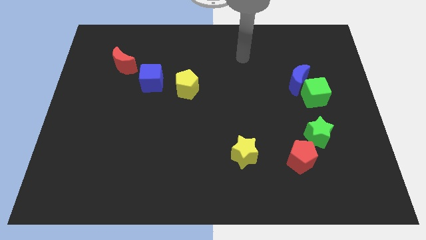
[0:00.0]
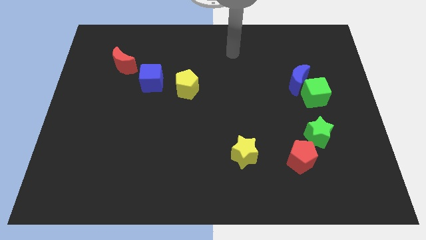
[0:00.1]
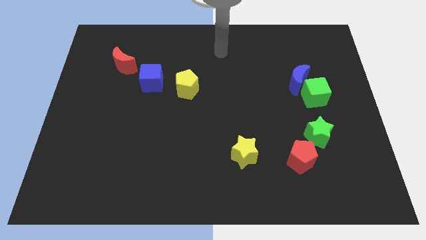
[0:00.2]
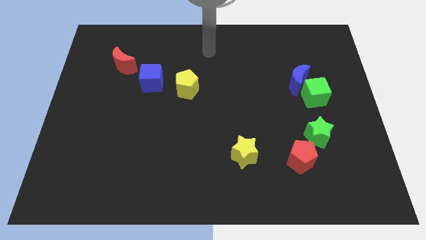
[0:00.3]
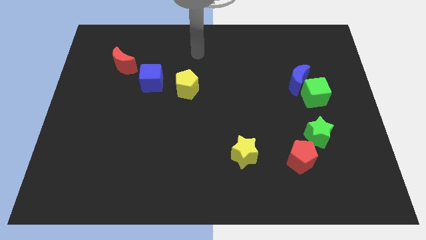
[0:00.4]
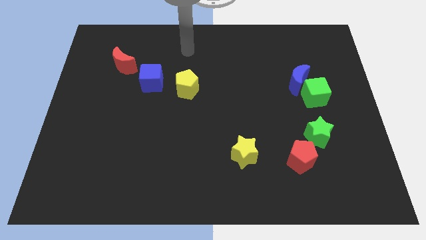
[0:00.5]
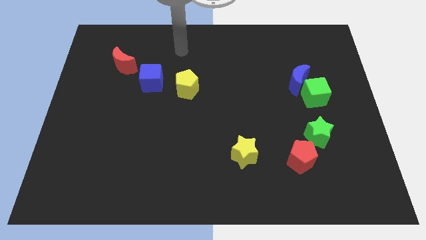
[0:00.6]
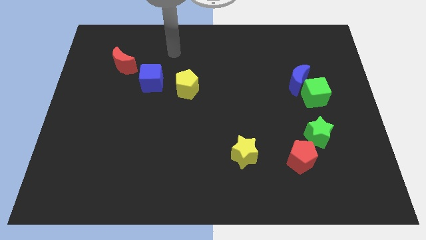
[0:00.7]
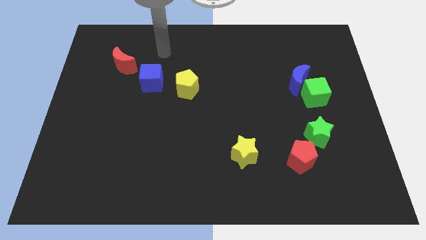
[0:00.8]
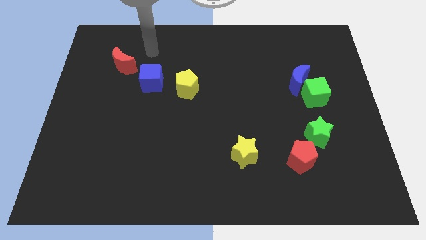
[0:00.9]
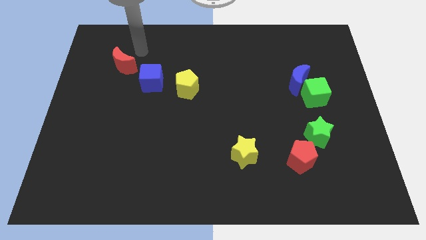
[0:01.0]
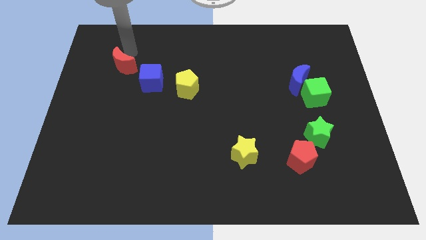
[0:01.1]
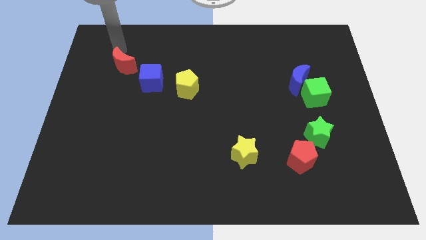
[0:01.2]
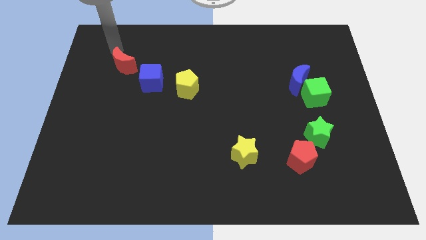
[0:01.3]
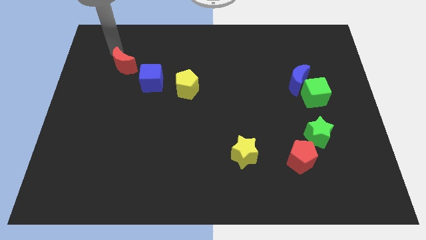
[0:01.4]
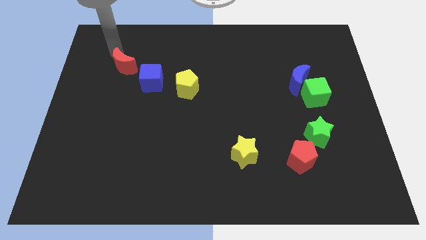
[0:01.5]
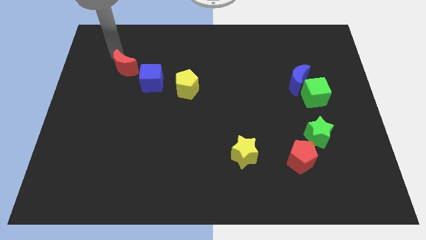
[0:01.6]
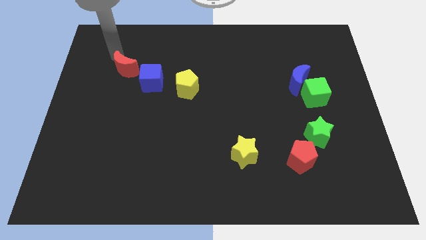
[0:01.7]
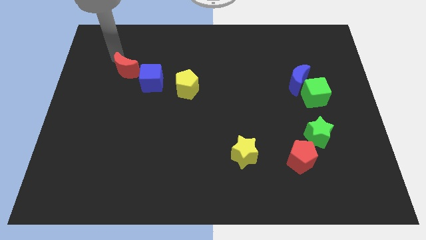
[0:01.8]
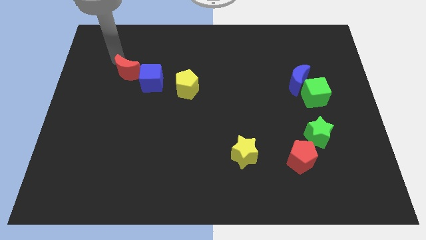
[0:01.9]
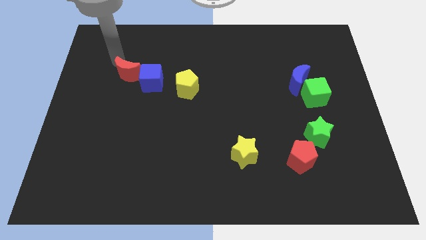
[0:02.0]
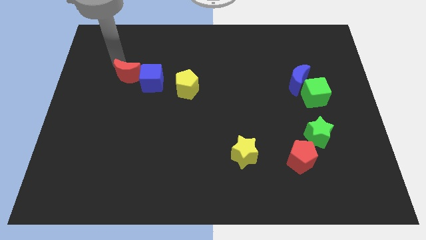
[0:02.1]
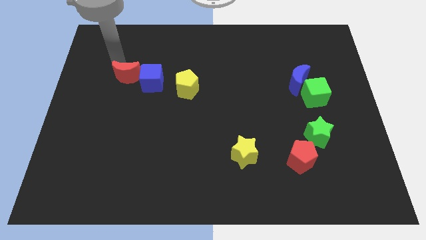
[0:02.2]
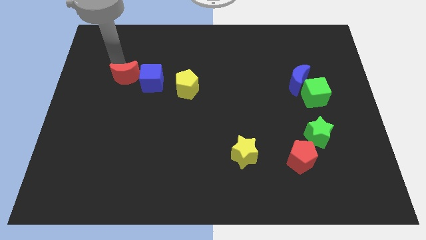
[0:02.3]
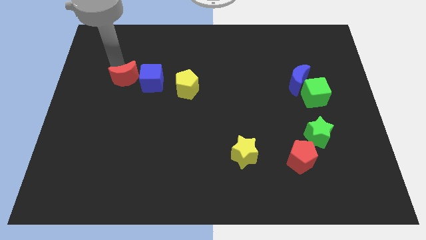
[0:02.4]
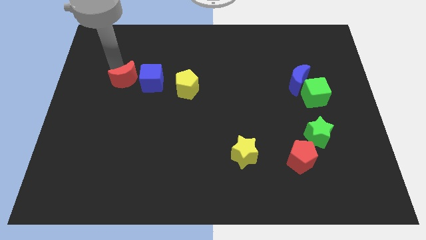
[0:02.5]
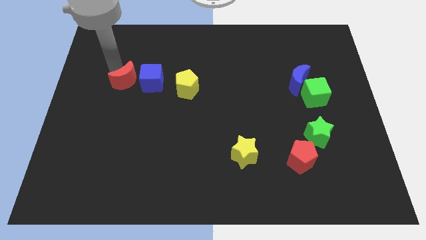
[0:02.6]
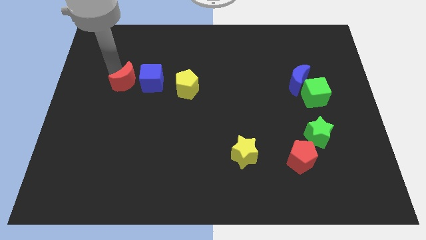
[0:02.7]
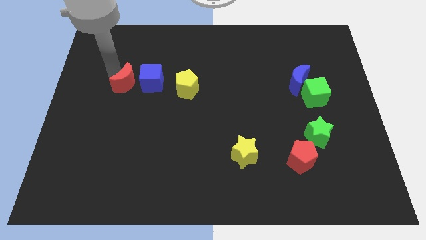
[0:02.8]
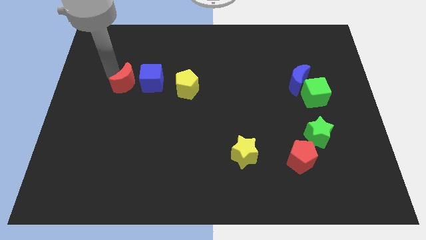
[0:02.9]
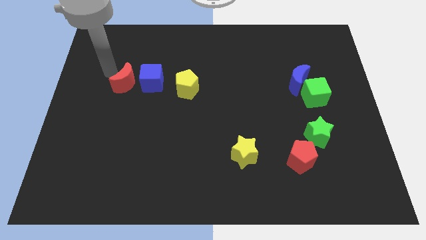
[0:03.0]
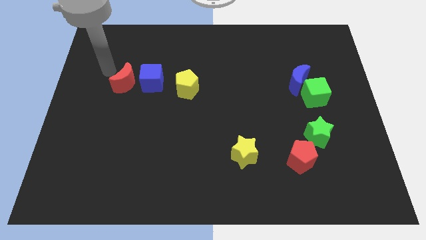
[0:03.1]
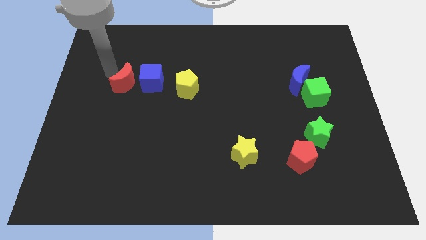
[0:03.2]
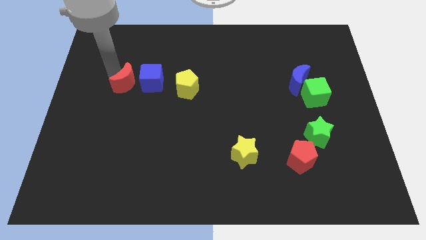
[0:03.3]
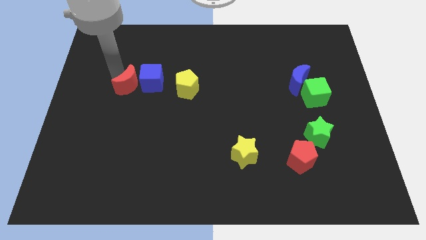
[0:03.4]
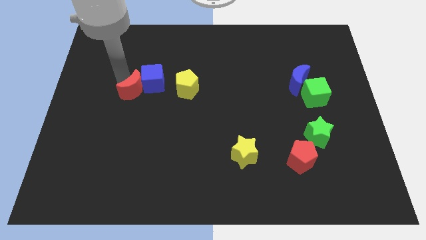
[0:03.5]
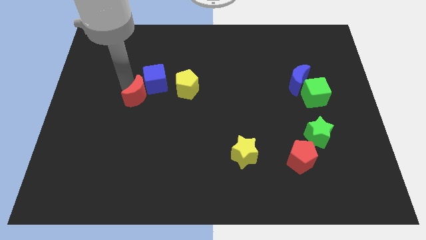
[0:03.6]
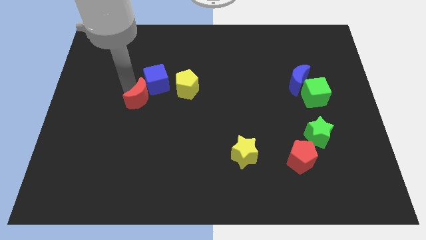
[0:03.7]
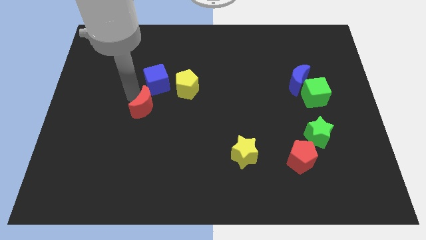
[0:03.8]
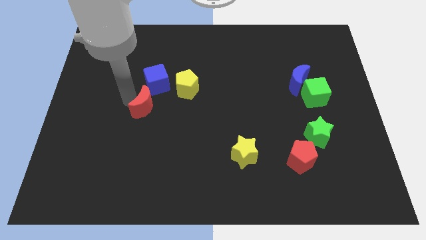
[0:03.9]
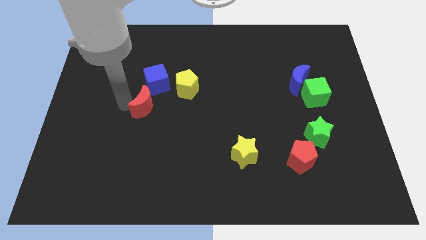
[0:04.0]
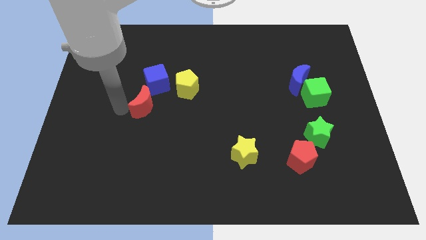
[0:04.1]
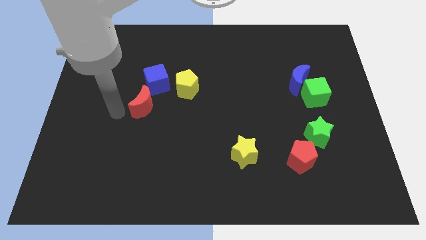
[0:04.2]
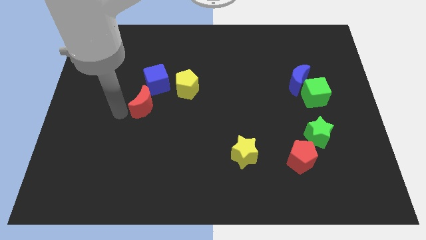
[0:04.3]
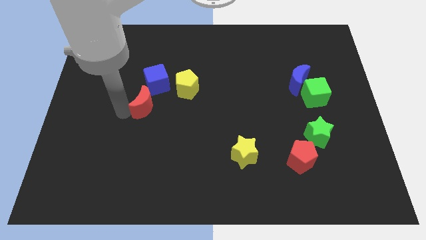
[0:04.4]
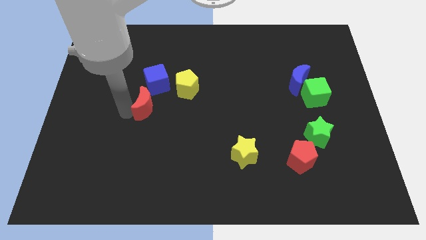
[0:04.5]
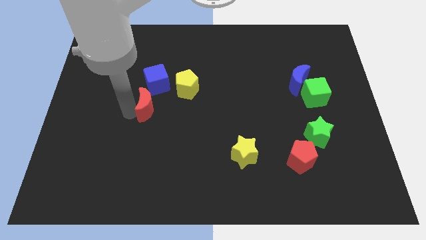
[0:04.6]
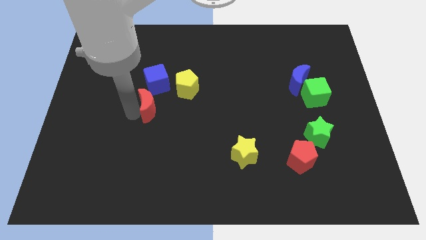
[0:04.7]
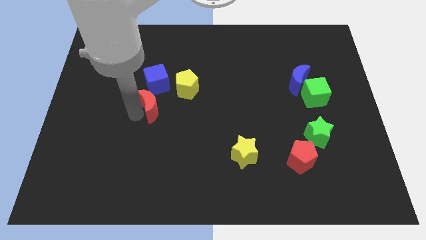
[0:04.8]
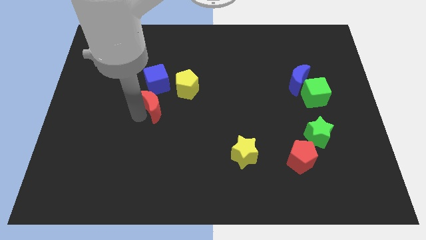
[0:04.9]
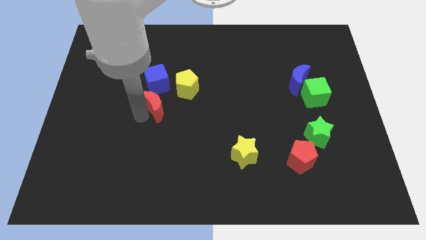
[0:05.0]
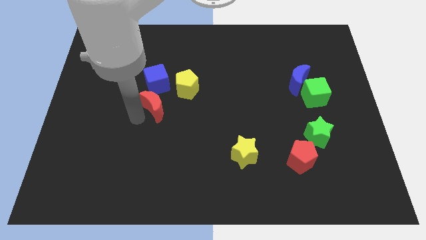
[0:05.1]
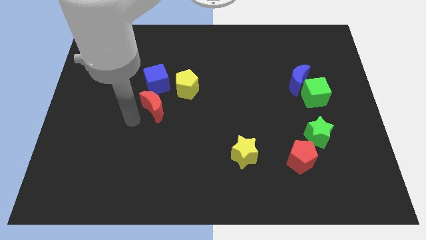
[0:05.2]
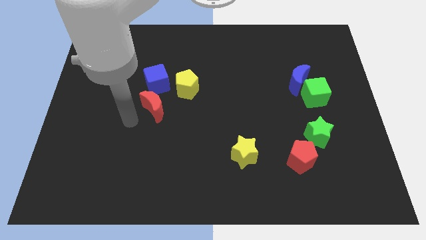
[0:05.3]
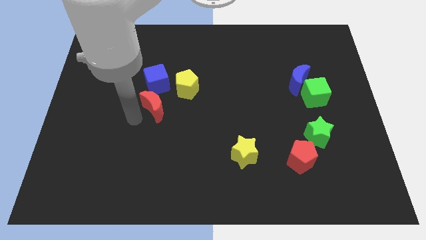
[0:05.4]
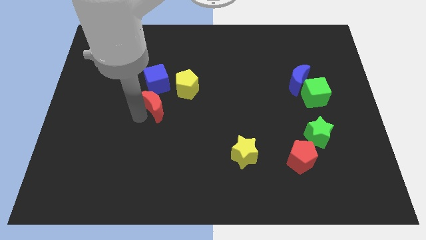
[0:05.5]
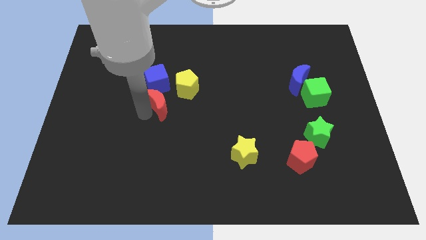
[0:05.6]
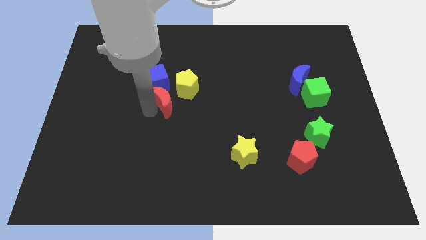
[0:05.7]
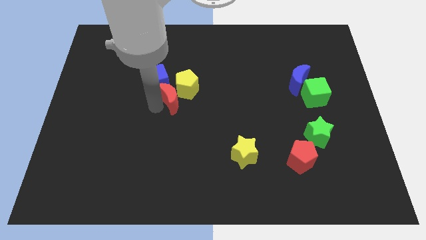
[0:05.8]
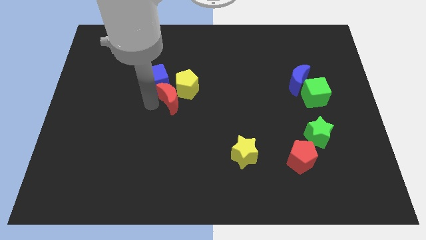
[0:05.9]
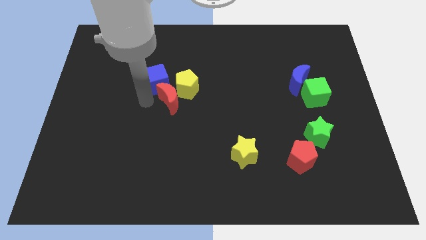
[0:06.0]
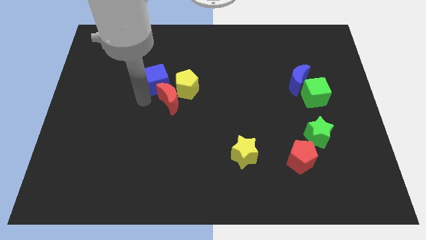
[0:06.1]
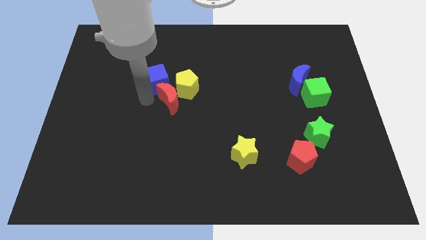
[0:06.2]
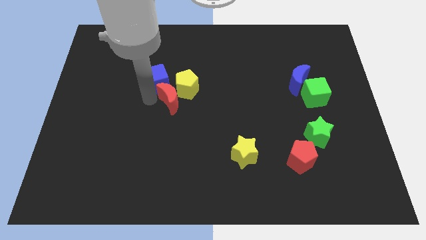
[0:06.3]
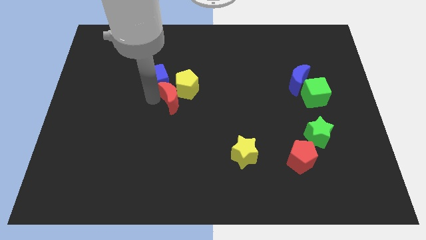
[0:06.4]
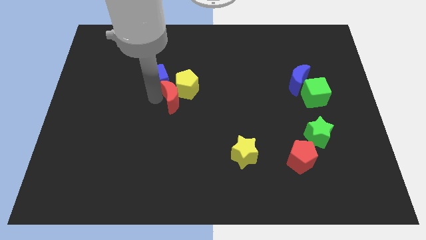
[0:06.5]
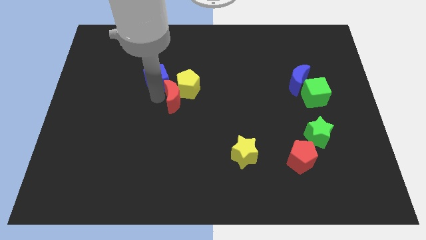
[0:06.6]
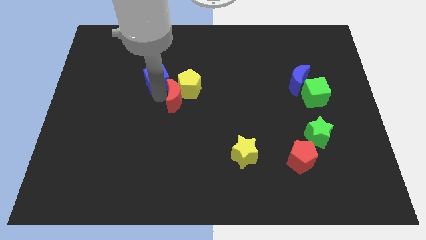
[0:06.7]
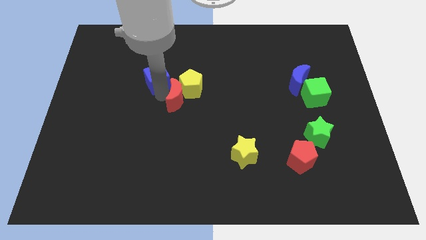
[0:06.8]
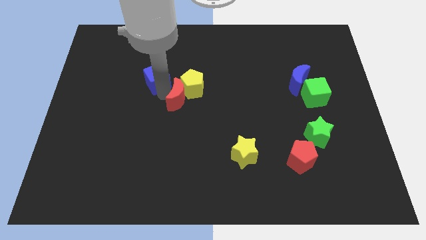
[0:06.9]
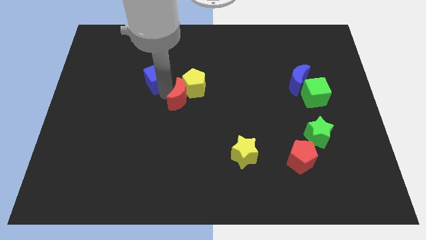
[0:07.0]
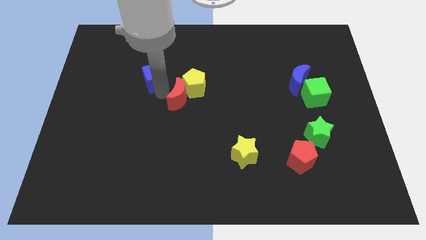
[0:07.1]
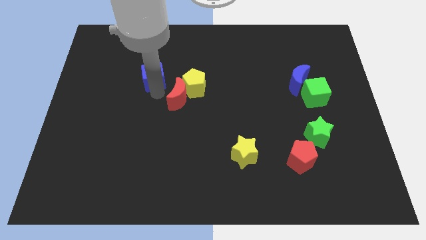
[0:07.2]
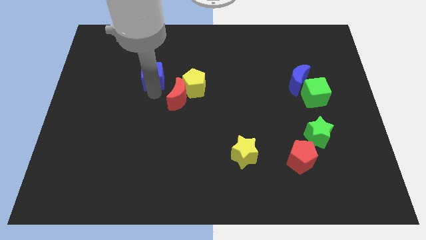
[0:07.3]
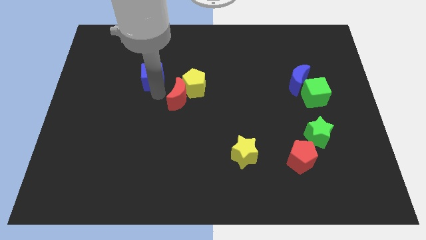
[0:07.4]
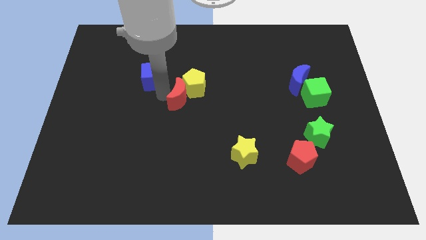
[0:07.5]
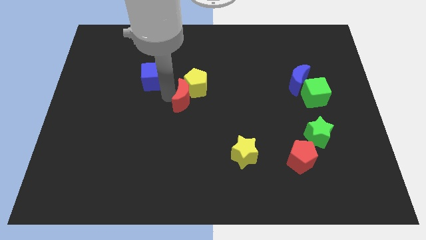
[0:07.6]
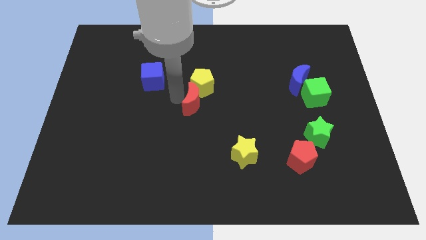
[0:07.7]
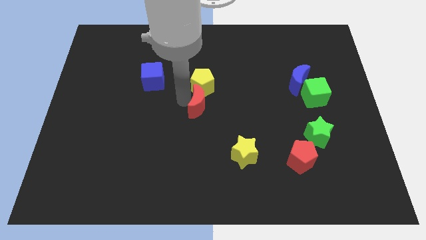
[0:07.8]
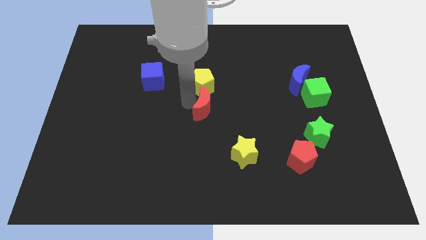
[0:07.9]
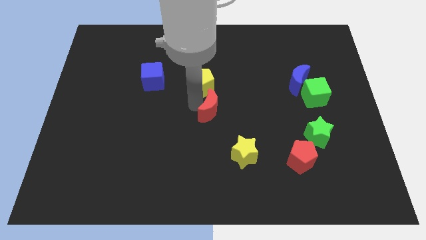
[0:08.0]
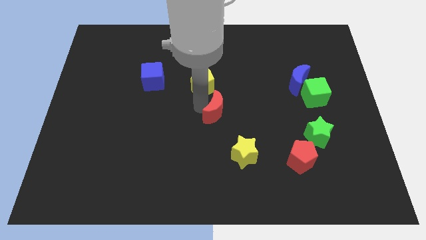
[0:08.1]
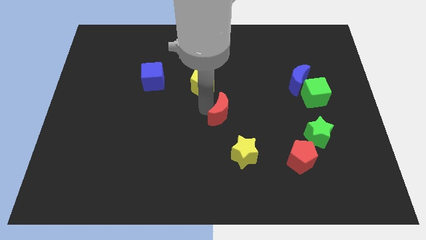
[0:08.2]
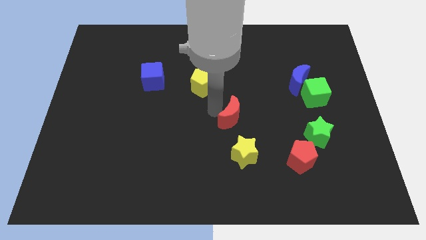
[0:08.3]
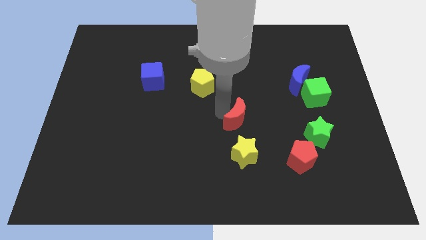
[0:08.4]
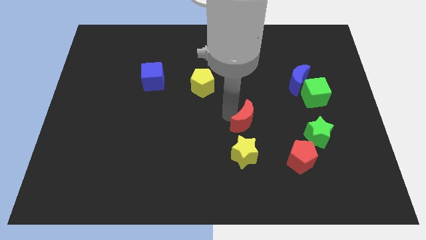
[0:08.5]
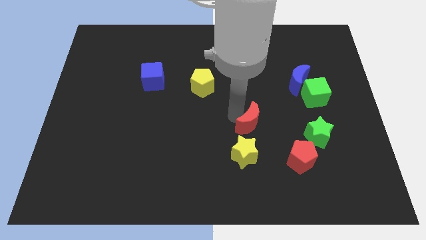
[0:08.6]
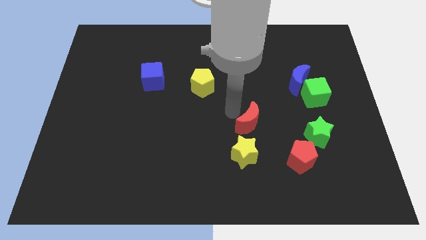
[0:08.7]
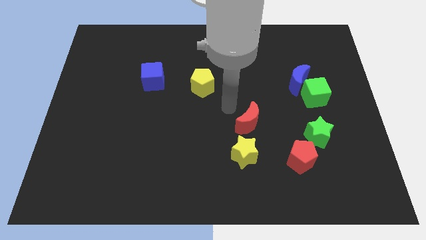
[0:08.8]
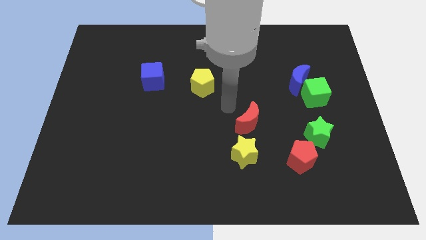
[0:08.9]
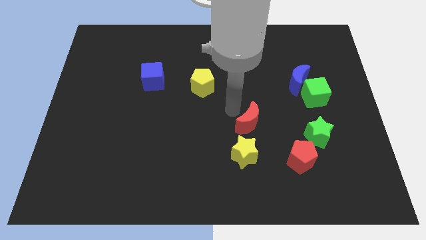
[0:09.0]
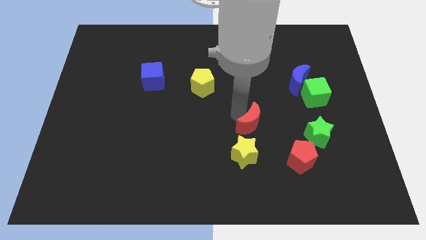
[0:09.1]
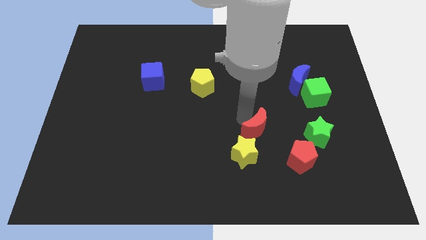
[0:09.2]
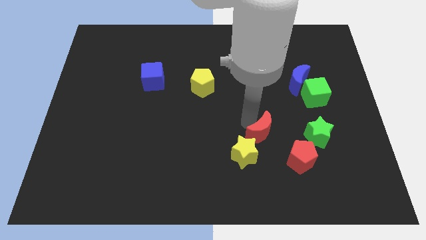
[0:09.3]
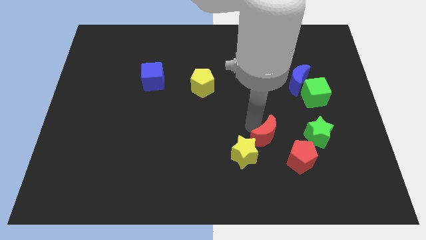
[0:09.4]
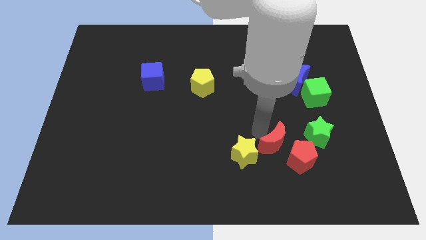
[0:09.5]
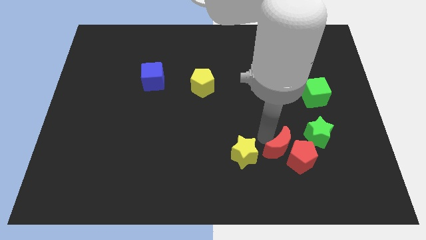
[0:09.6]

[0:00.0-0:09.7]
slide the red moon next to the red pentagon
